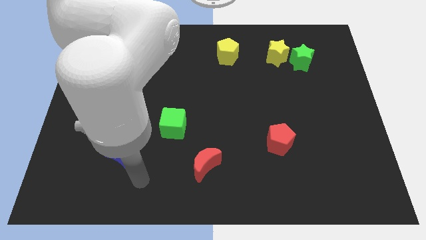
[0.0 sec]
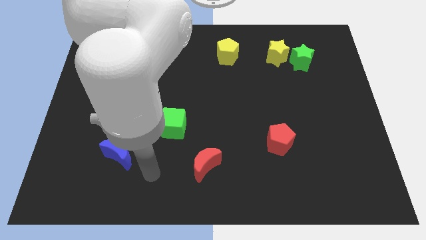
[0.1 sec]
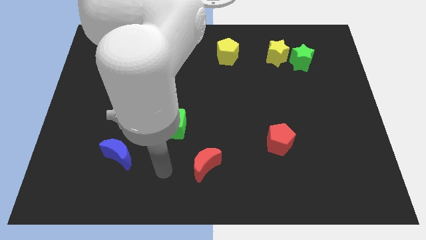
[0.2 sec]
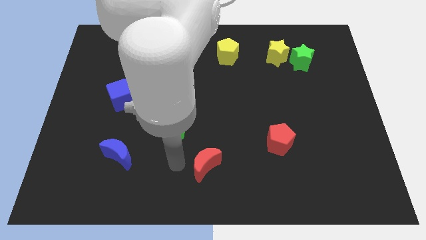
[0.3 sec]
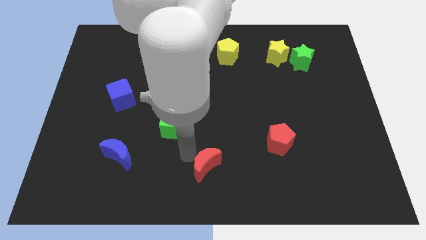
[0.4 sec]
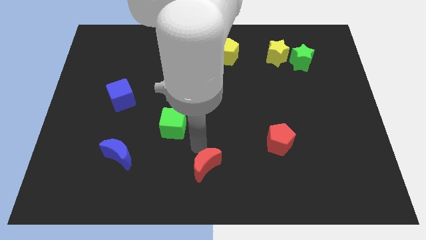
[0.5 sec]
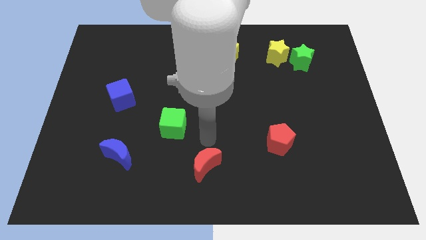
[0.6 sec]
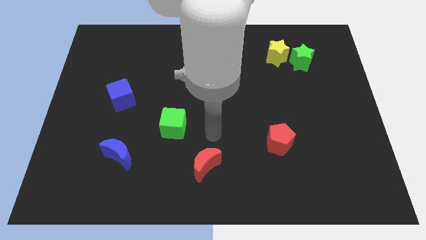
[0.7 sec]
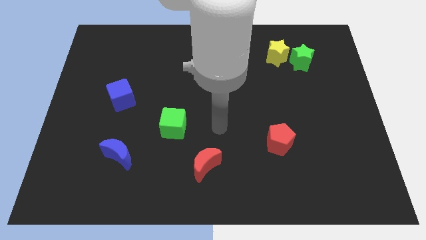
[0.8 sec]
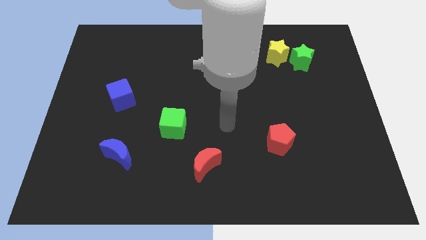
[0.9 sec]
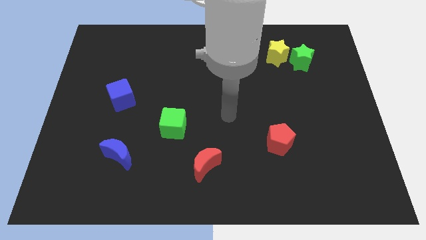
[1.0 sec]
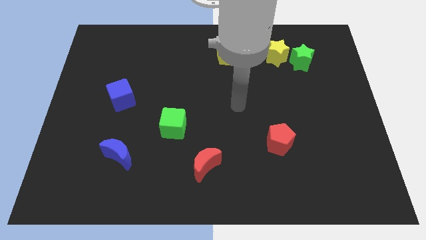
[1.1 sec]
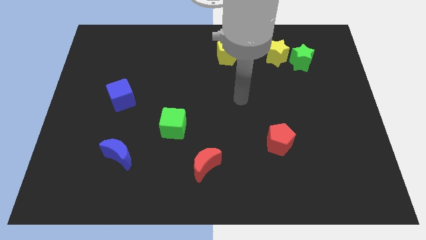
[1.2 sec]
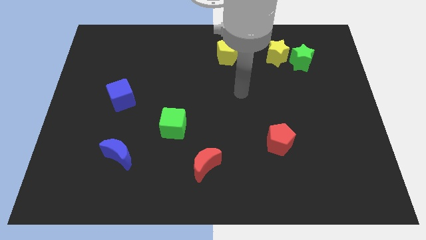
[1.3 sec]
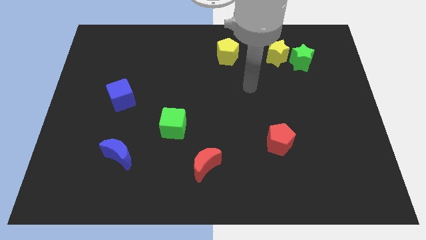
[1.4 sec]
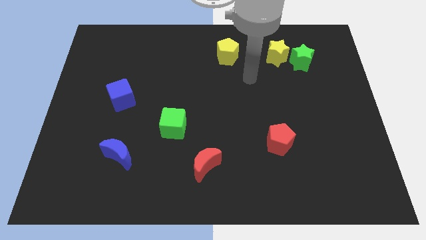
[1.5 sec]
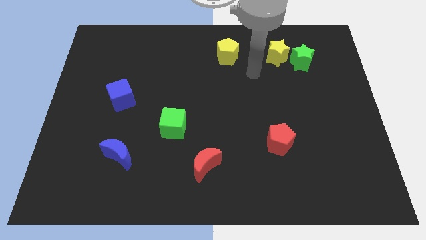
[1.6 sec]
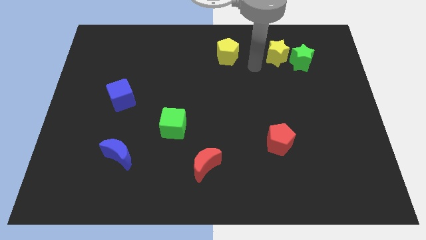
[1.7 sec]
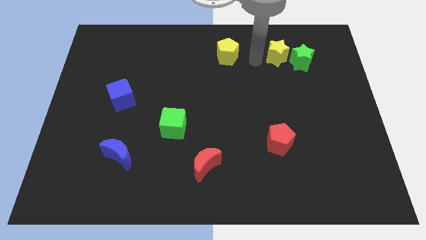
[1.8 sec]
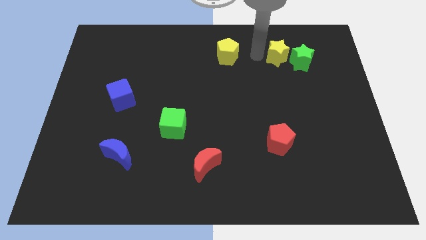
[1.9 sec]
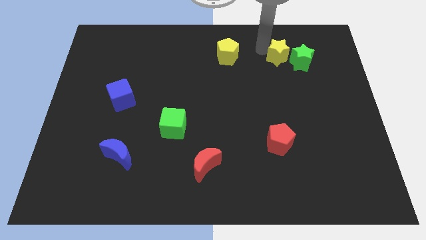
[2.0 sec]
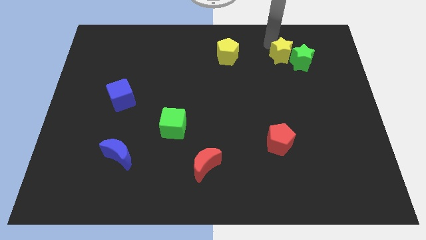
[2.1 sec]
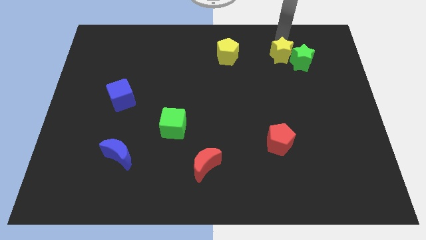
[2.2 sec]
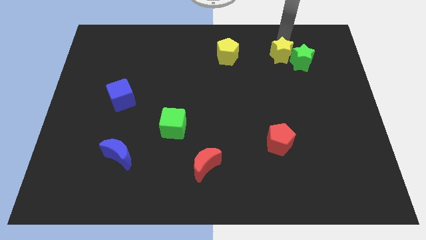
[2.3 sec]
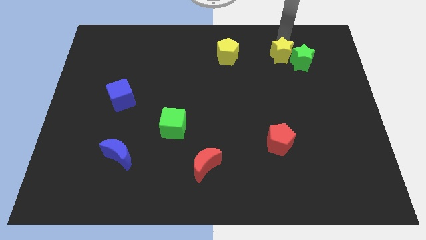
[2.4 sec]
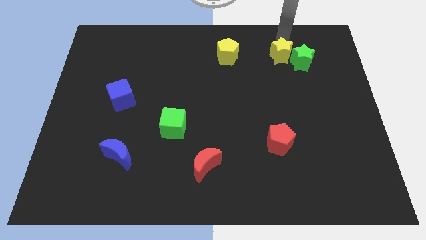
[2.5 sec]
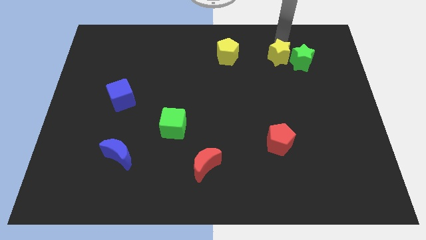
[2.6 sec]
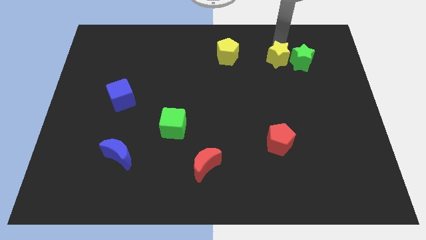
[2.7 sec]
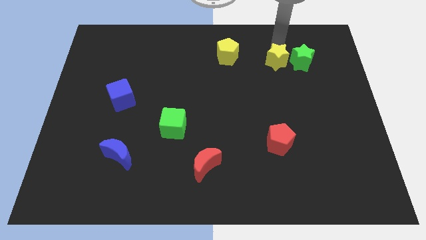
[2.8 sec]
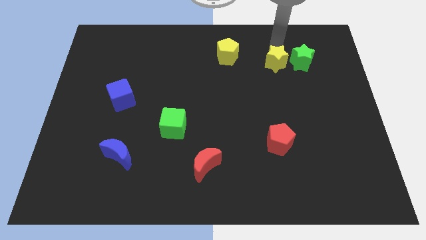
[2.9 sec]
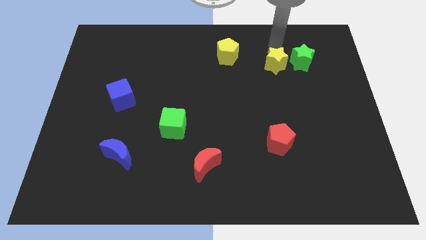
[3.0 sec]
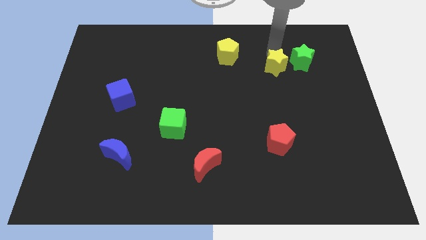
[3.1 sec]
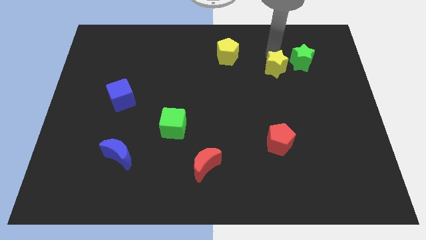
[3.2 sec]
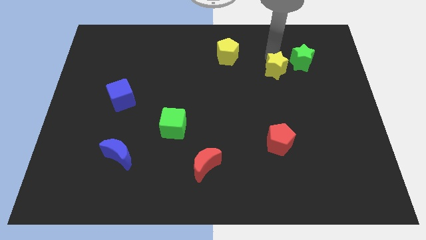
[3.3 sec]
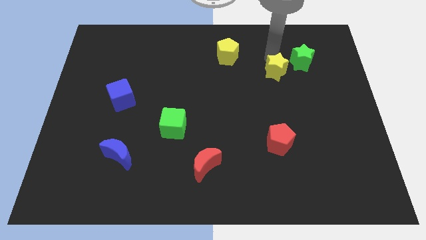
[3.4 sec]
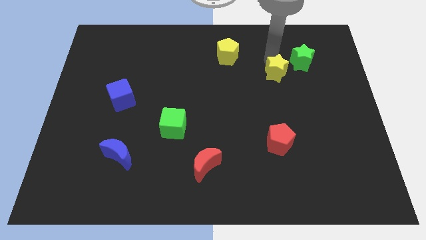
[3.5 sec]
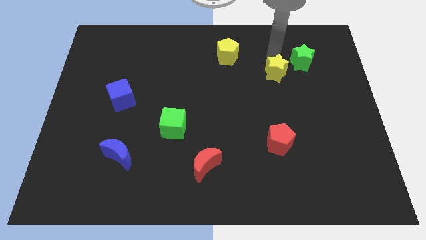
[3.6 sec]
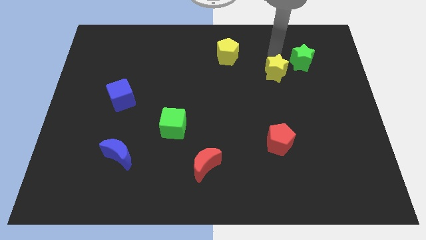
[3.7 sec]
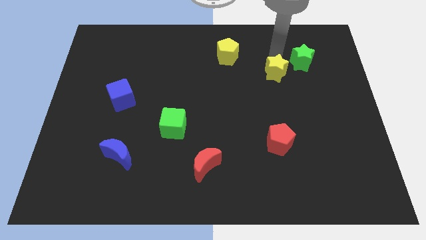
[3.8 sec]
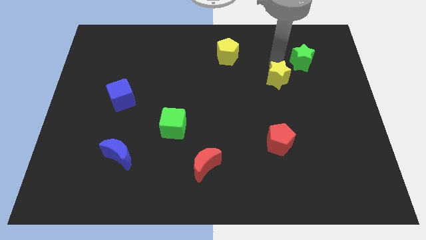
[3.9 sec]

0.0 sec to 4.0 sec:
move the yellow star down a little

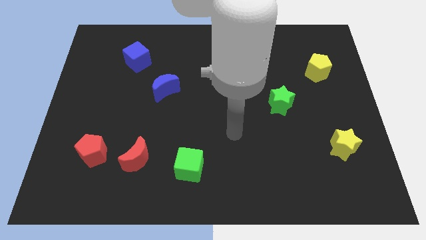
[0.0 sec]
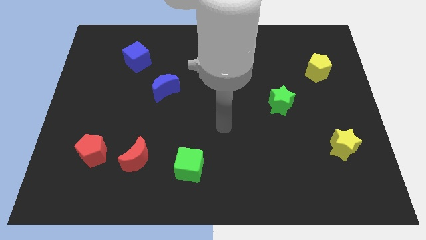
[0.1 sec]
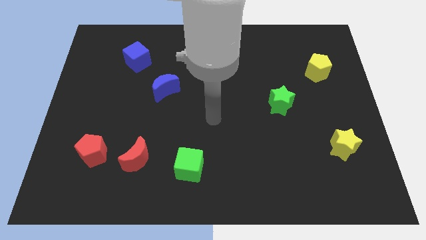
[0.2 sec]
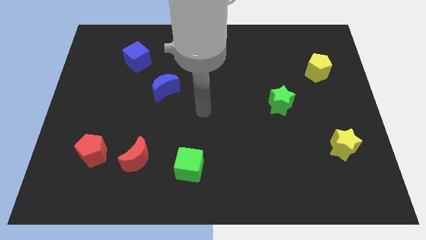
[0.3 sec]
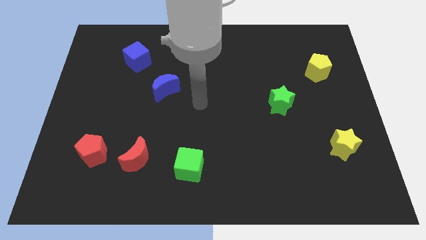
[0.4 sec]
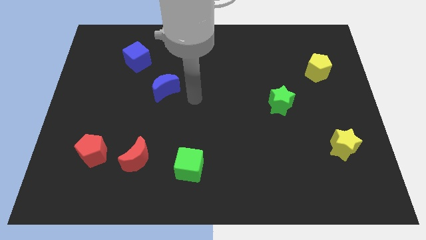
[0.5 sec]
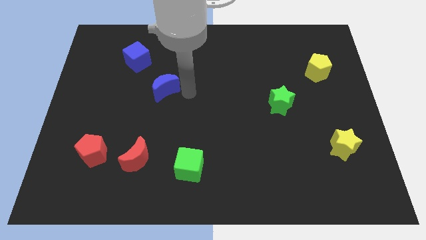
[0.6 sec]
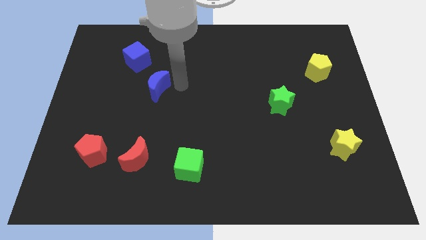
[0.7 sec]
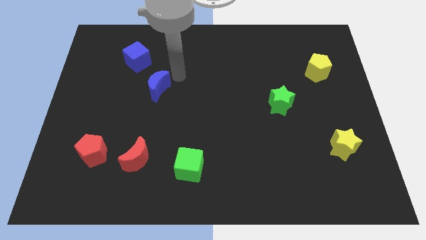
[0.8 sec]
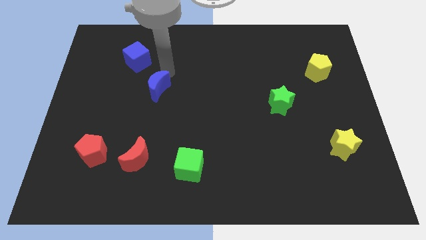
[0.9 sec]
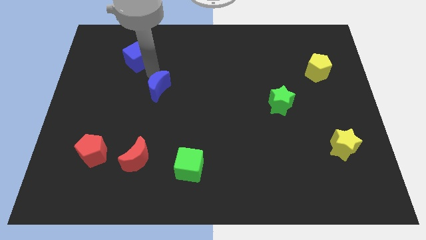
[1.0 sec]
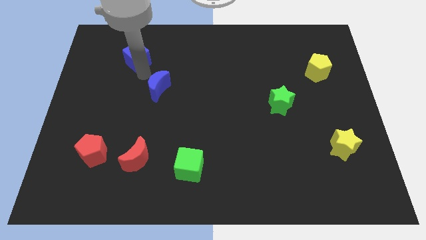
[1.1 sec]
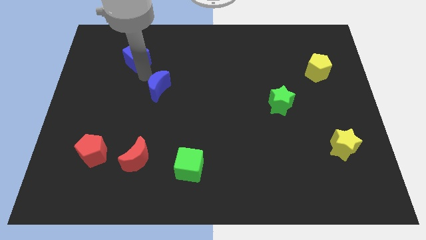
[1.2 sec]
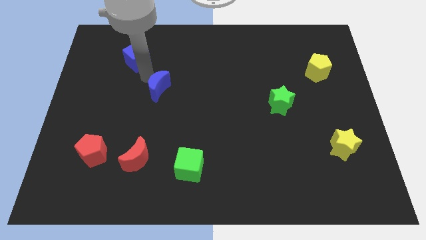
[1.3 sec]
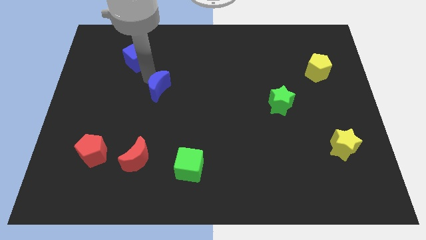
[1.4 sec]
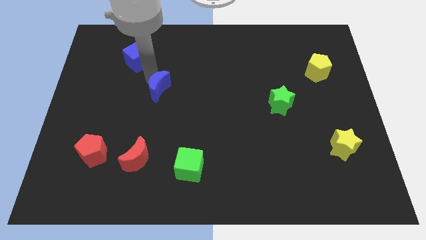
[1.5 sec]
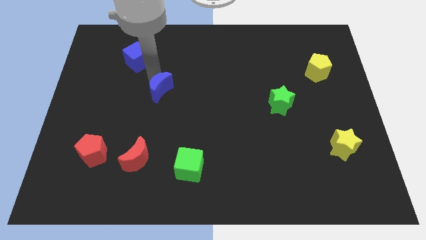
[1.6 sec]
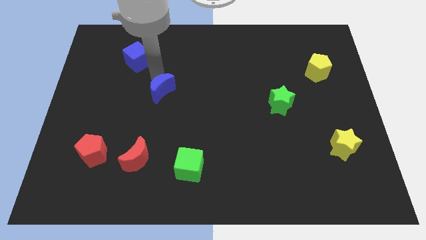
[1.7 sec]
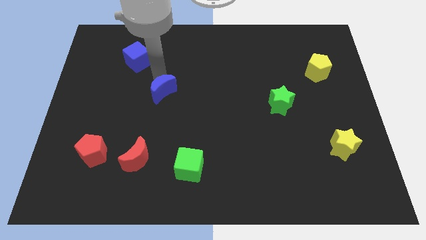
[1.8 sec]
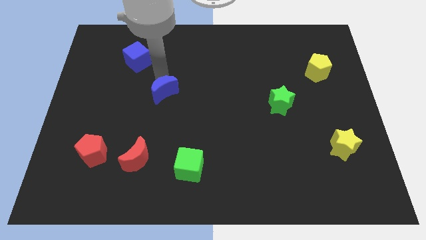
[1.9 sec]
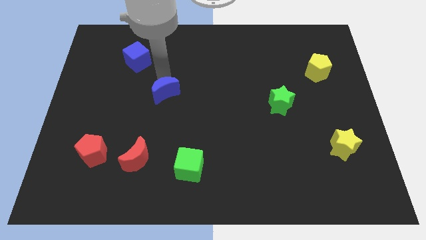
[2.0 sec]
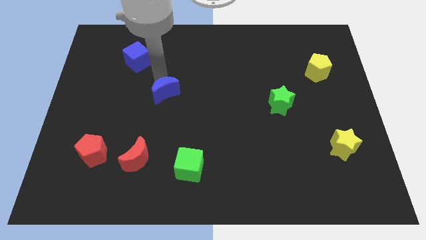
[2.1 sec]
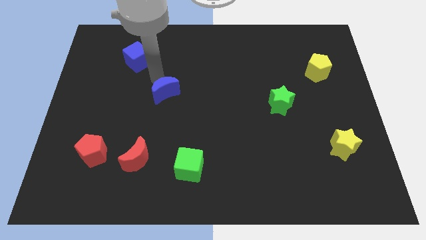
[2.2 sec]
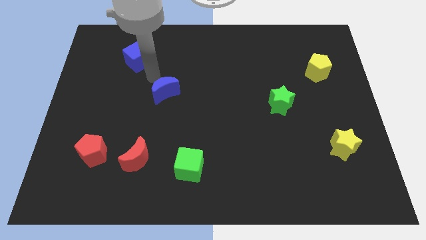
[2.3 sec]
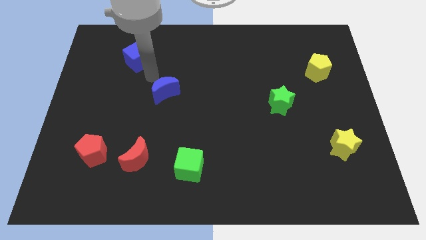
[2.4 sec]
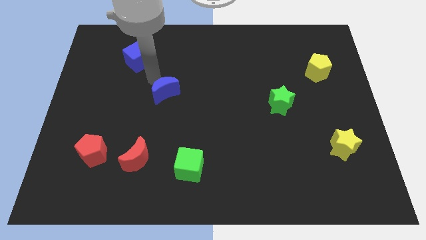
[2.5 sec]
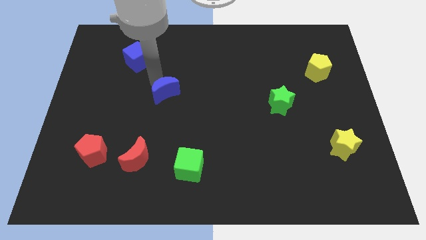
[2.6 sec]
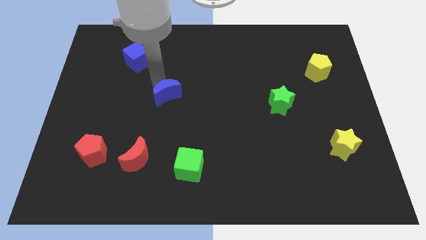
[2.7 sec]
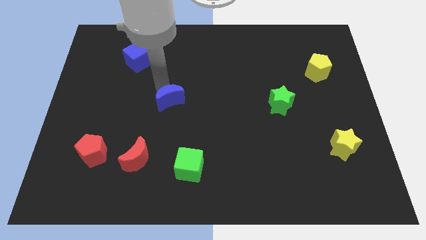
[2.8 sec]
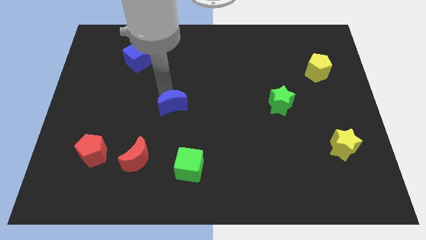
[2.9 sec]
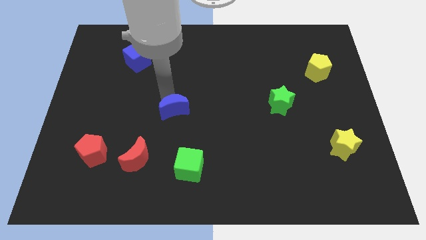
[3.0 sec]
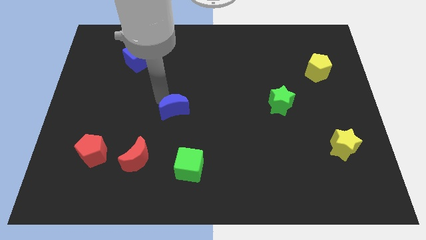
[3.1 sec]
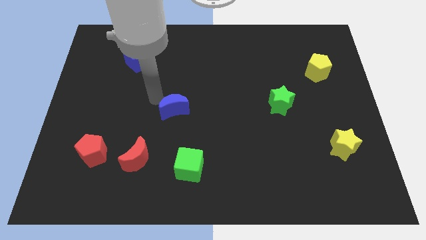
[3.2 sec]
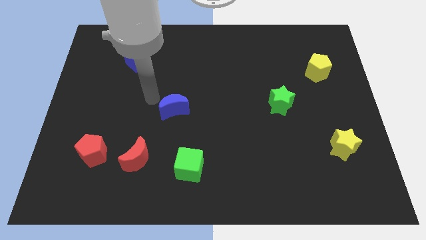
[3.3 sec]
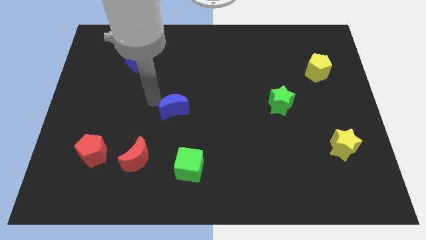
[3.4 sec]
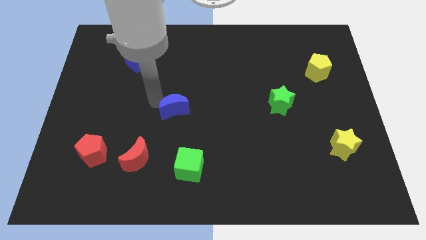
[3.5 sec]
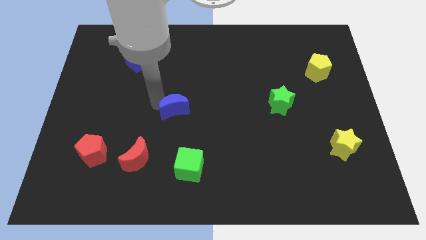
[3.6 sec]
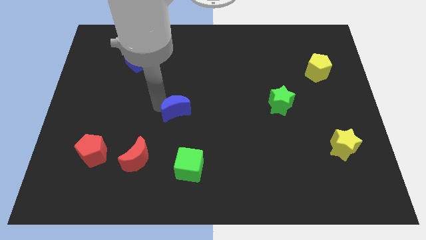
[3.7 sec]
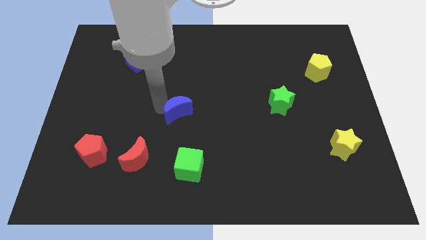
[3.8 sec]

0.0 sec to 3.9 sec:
slightly move the blue moon down and to the right

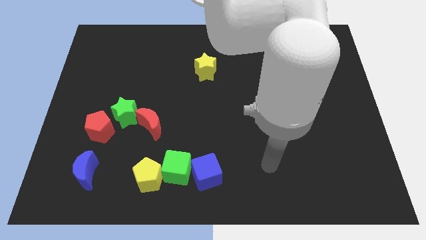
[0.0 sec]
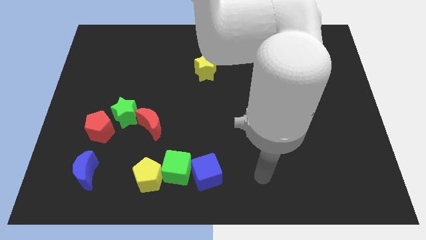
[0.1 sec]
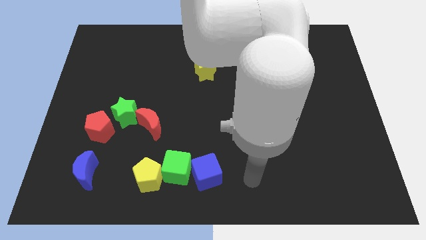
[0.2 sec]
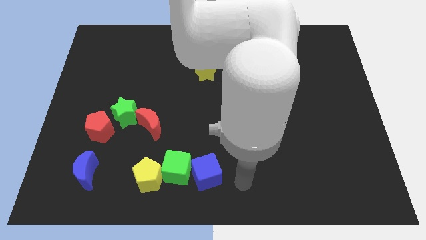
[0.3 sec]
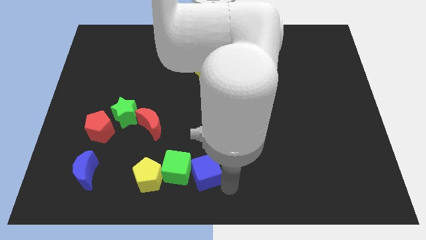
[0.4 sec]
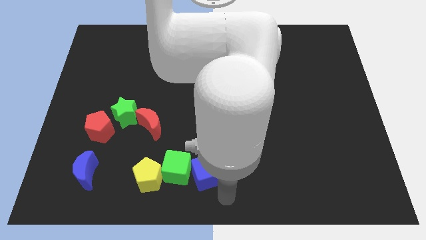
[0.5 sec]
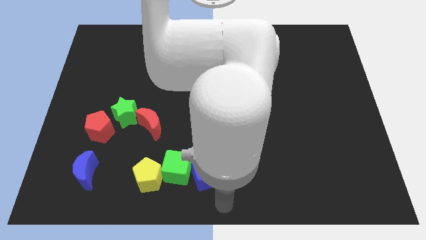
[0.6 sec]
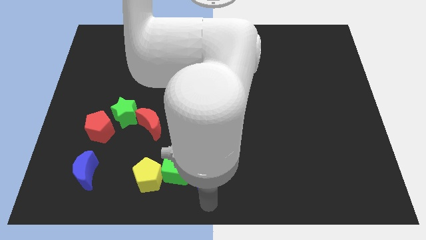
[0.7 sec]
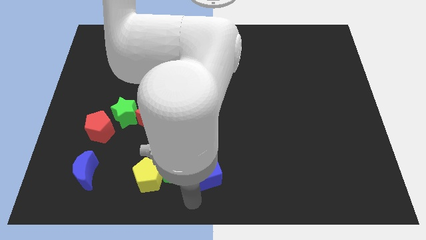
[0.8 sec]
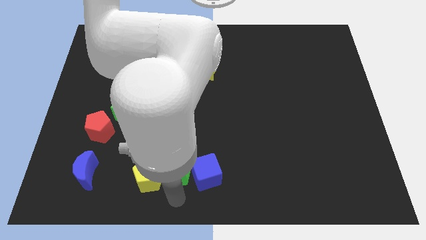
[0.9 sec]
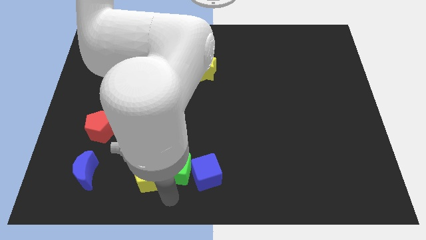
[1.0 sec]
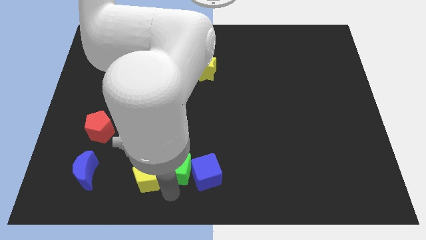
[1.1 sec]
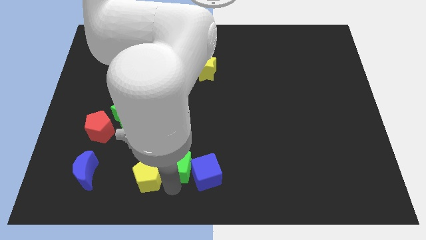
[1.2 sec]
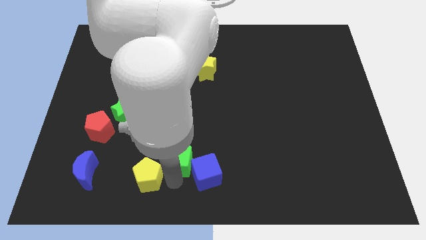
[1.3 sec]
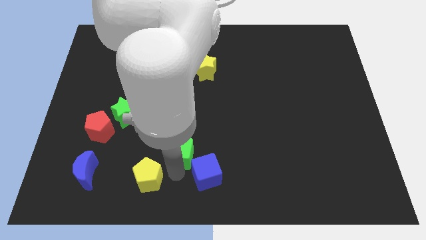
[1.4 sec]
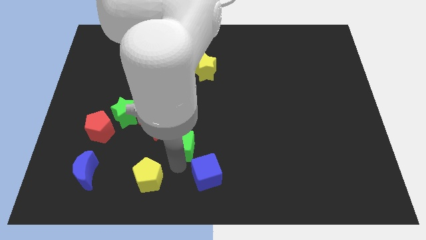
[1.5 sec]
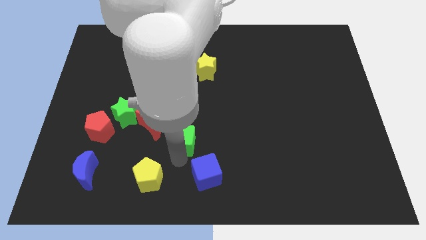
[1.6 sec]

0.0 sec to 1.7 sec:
push the green cube a bit upwards
